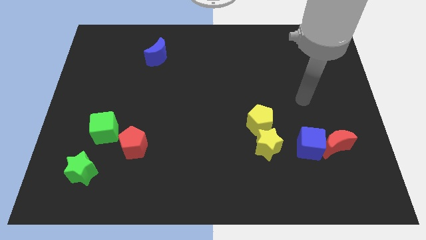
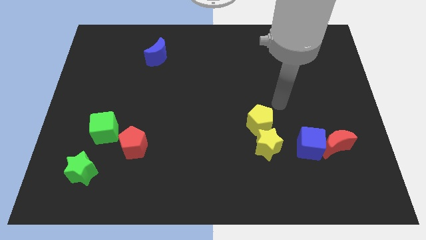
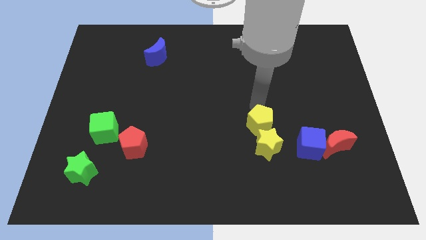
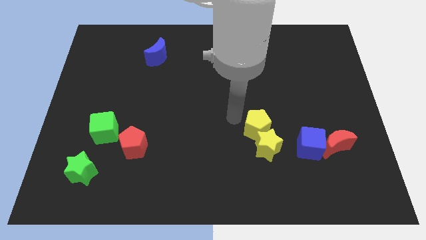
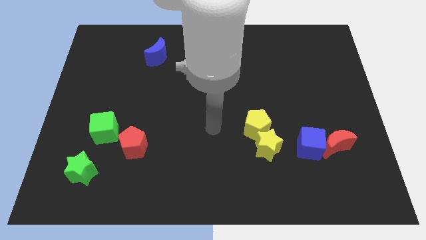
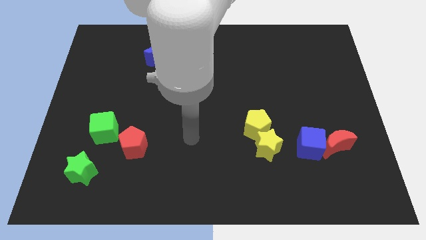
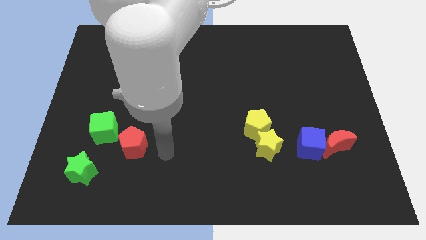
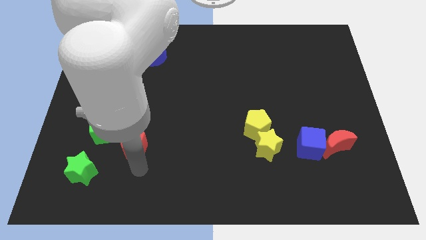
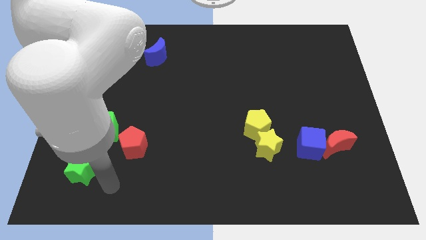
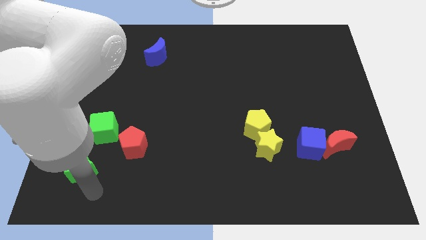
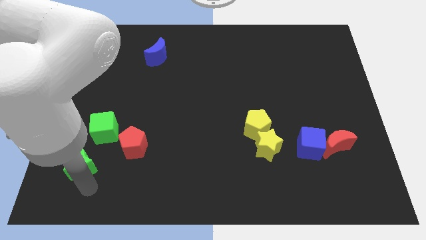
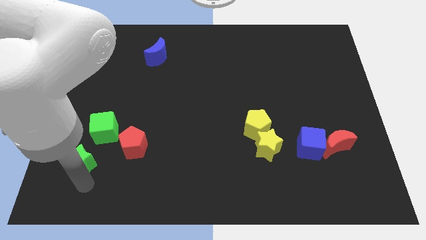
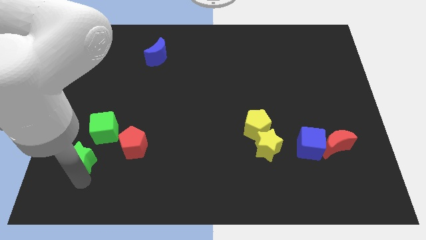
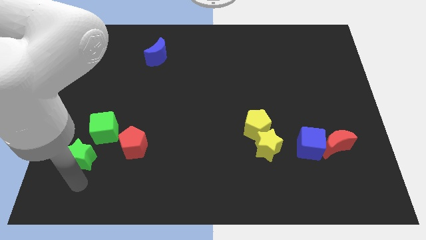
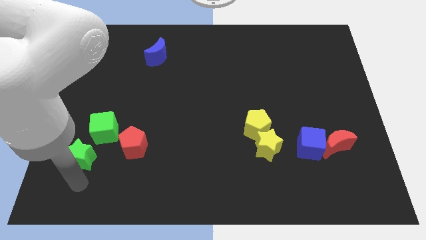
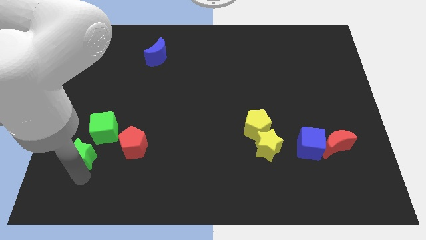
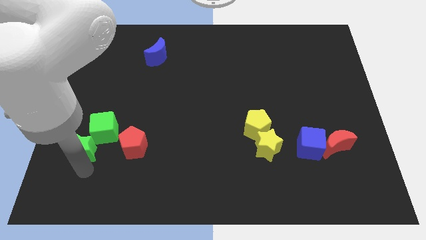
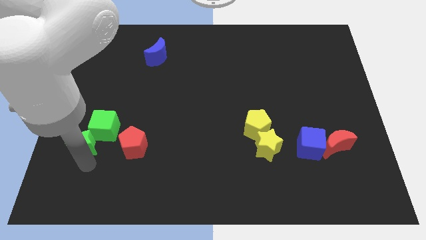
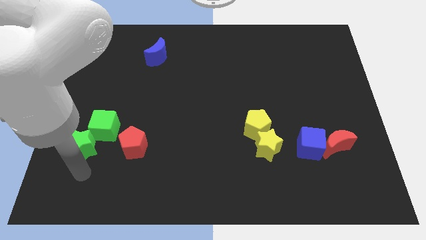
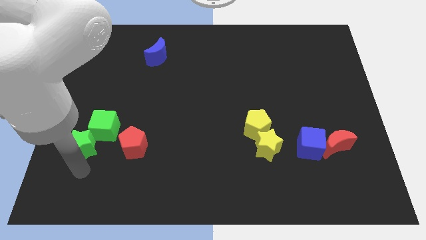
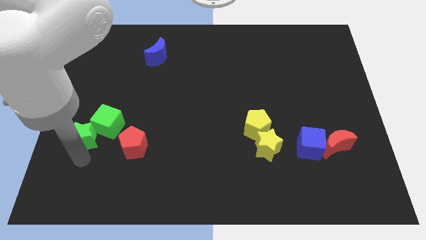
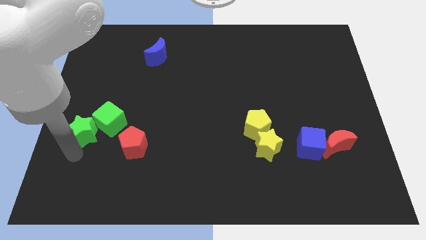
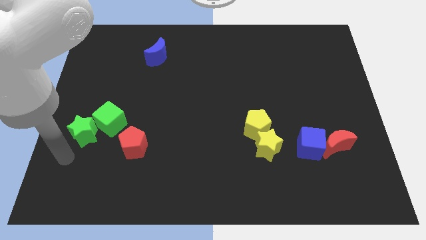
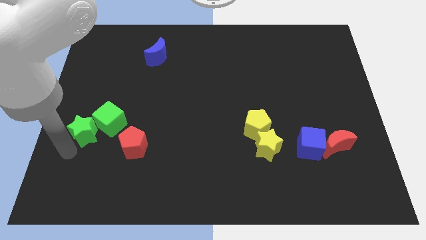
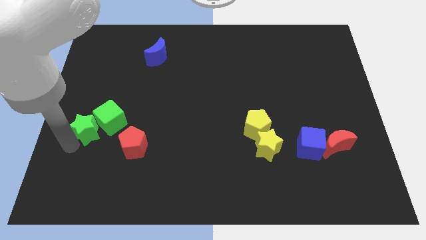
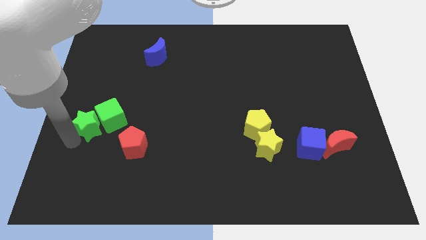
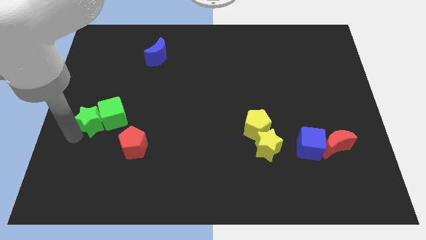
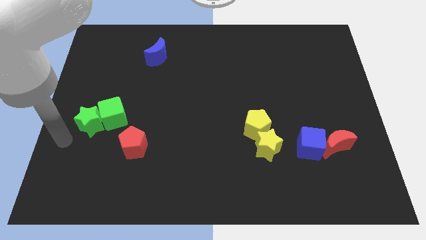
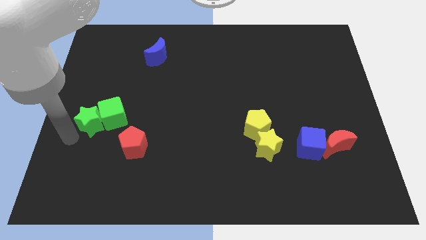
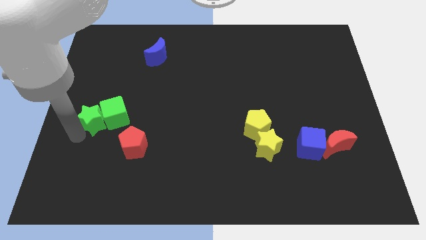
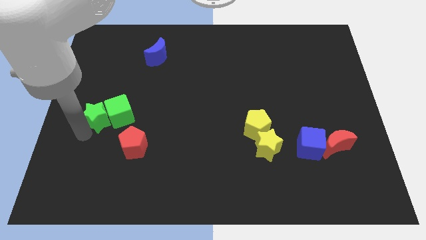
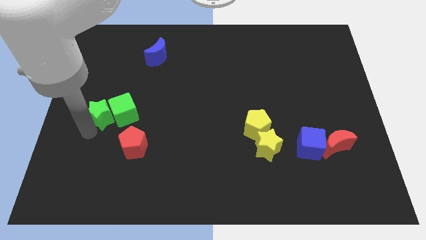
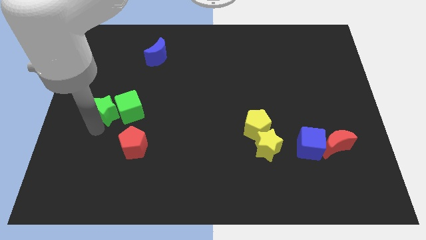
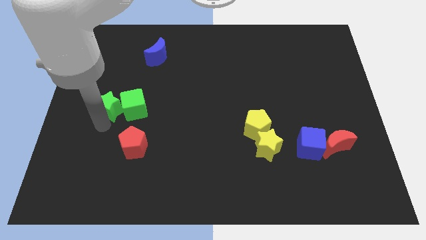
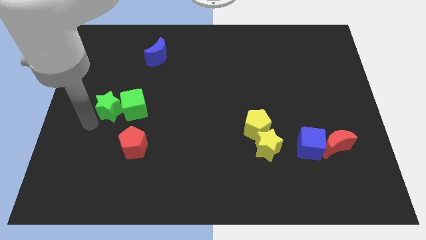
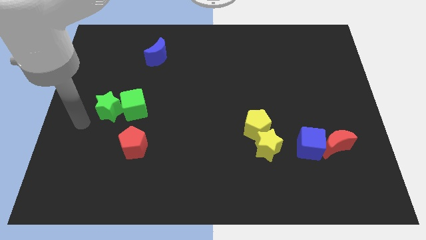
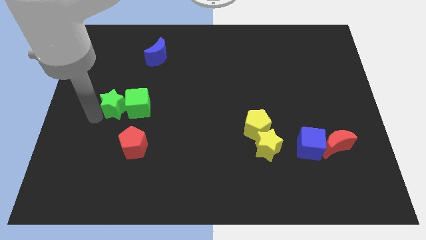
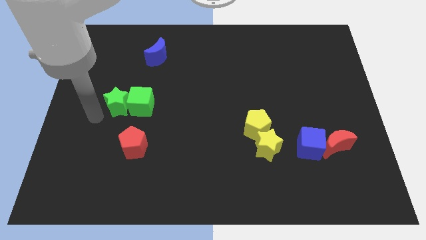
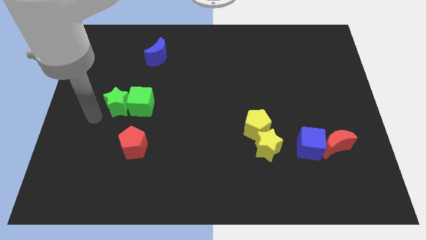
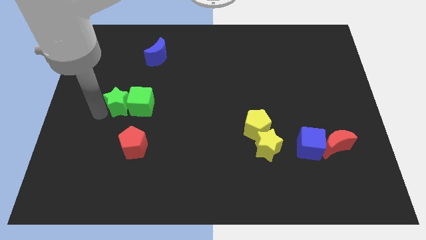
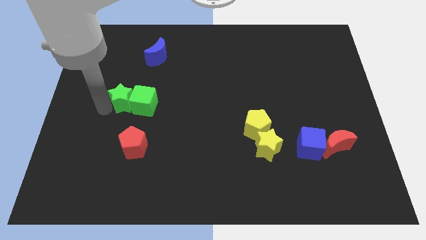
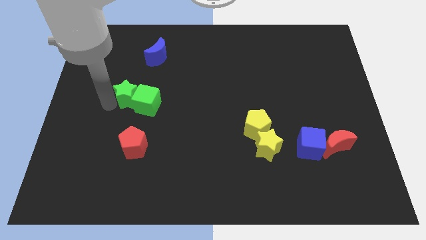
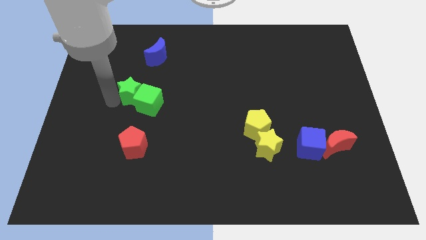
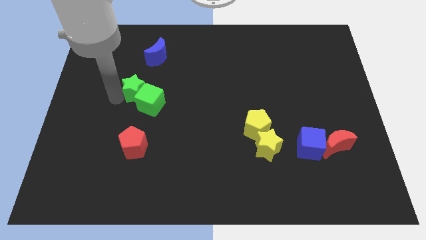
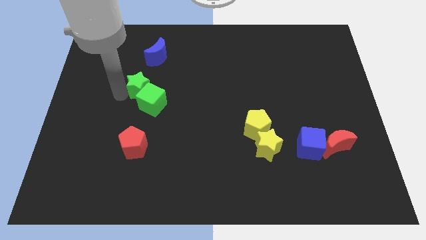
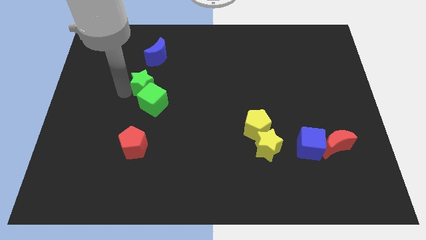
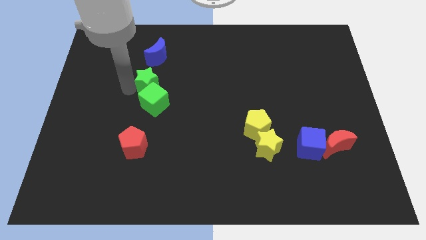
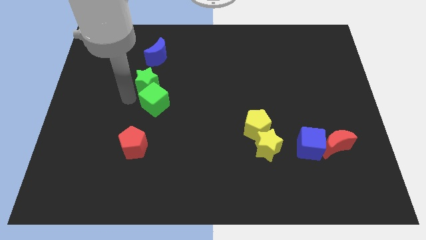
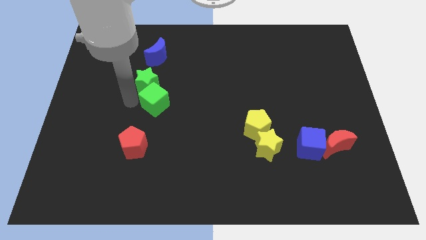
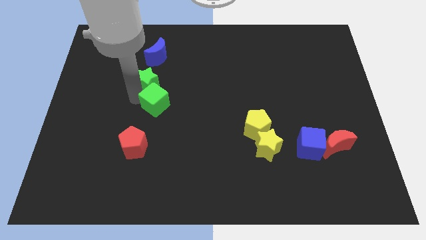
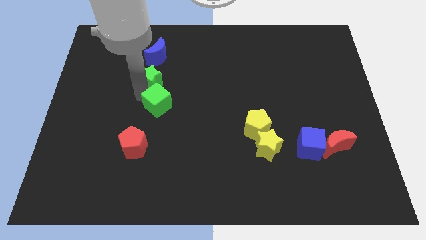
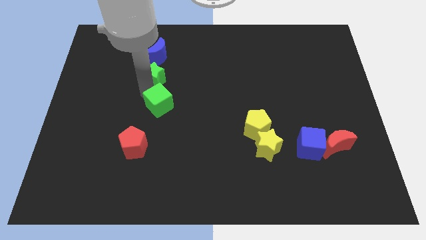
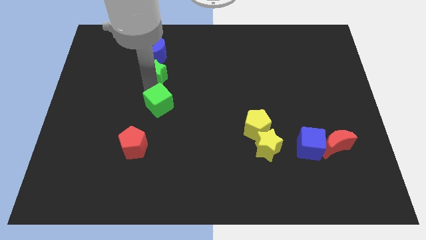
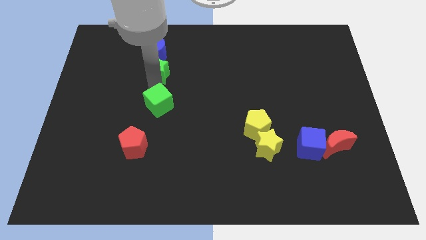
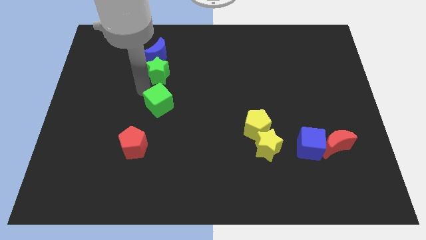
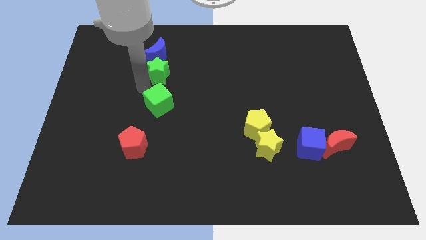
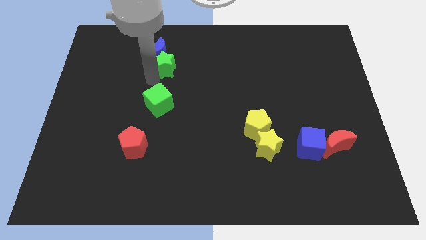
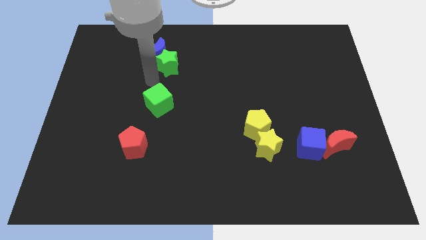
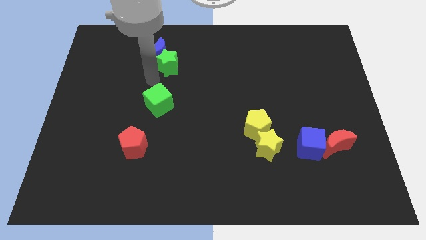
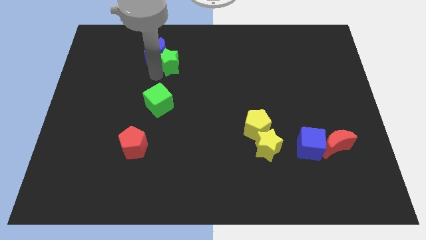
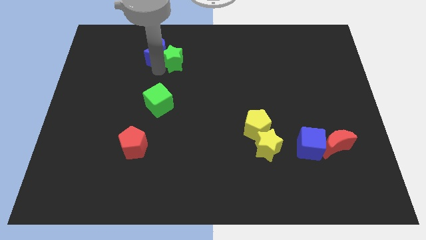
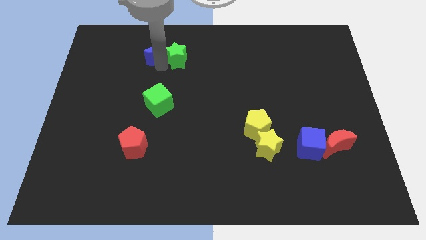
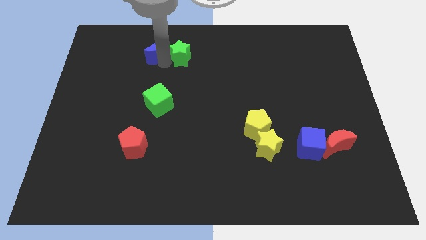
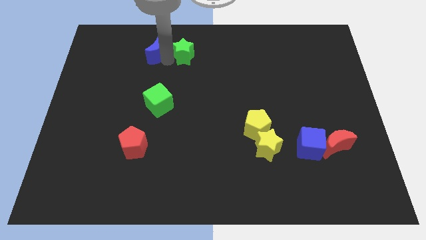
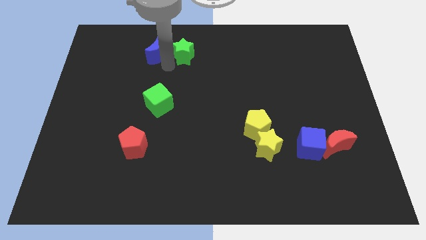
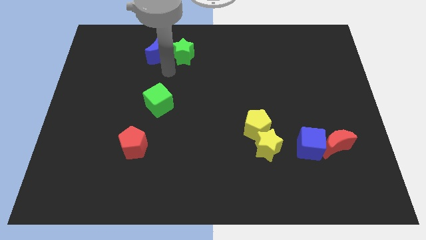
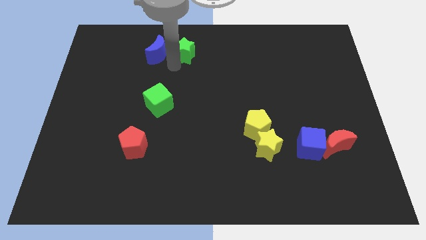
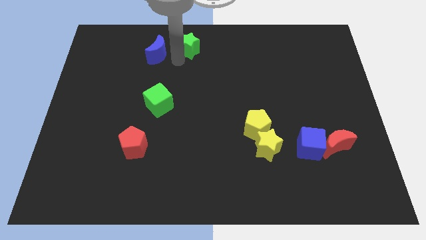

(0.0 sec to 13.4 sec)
push the green star to the top side
